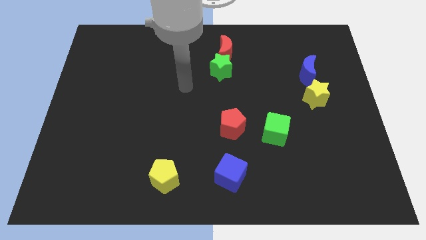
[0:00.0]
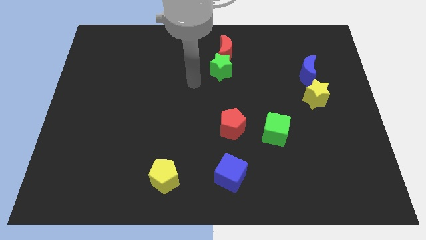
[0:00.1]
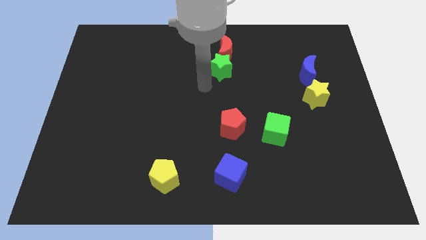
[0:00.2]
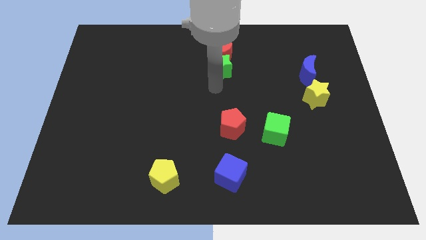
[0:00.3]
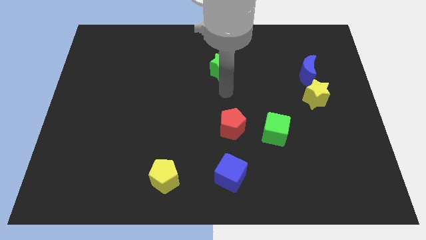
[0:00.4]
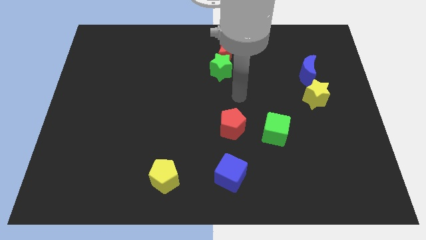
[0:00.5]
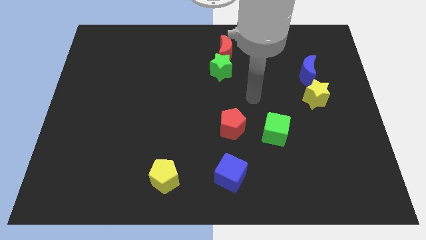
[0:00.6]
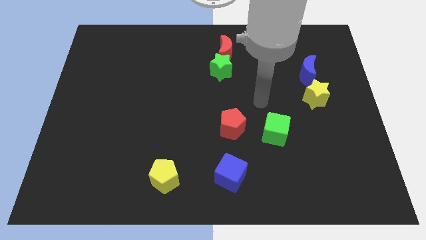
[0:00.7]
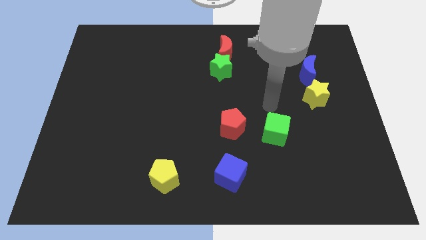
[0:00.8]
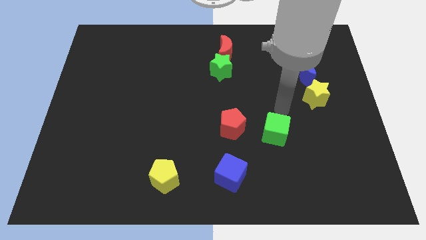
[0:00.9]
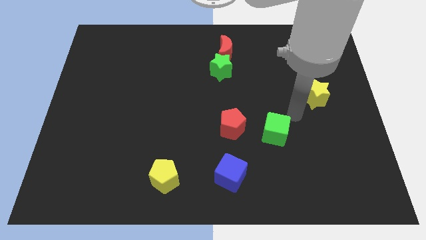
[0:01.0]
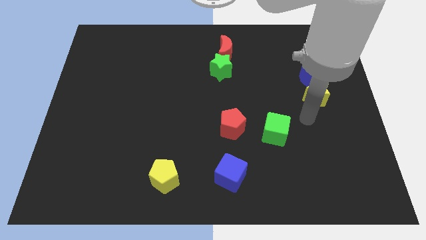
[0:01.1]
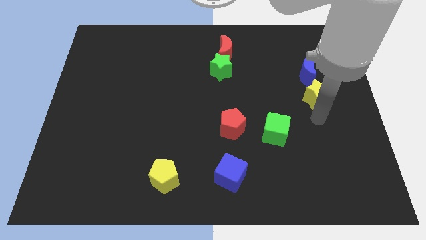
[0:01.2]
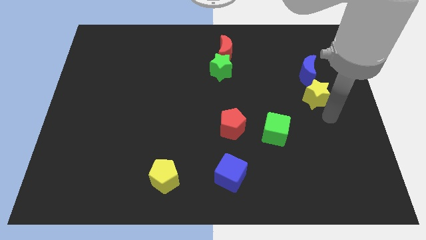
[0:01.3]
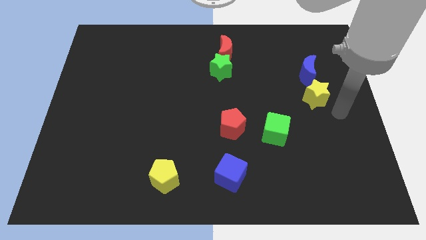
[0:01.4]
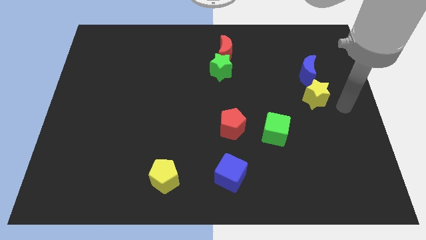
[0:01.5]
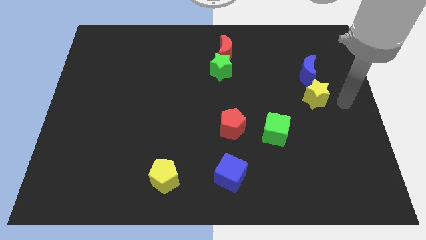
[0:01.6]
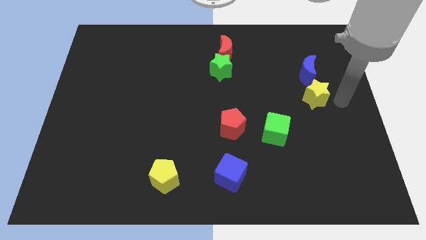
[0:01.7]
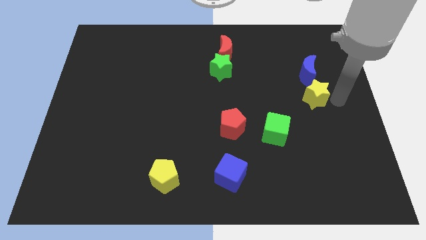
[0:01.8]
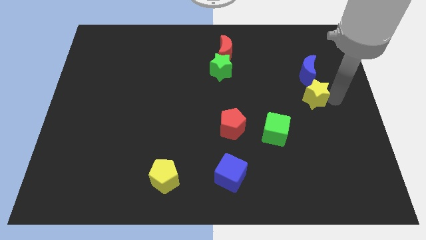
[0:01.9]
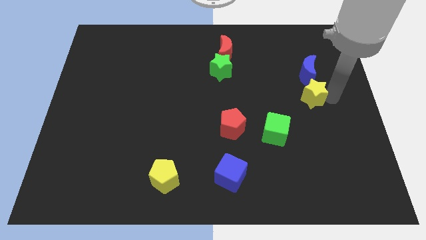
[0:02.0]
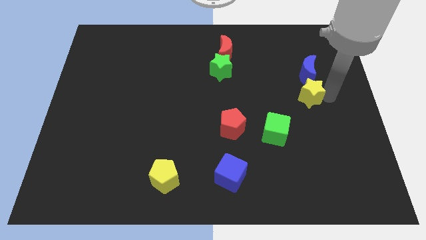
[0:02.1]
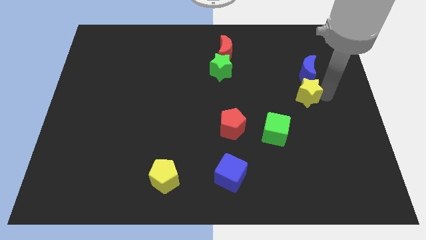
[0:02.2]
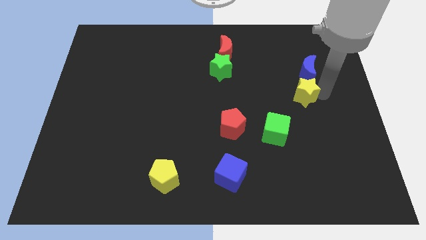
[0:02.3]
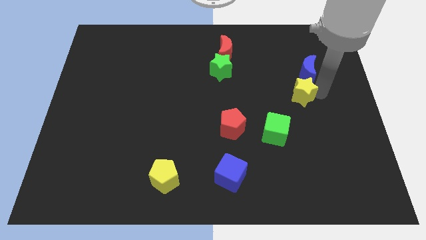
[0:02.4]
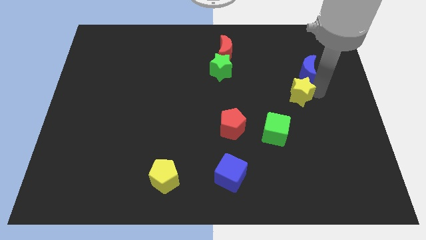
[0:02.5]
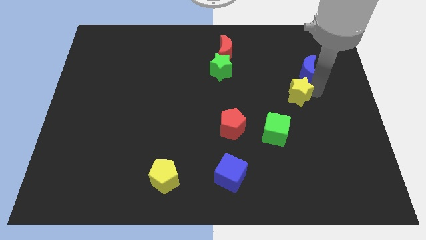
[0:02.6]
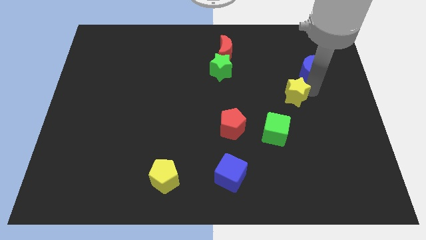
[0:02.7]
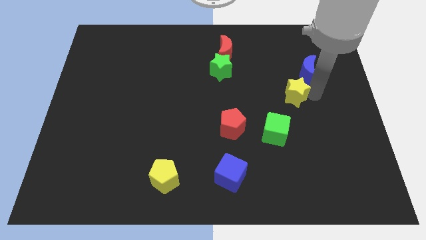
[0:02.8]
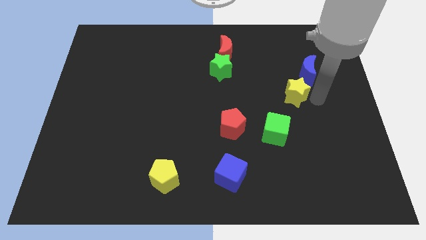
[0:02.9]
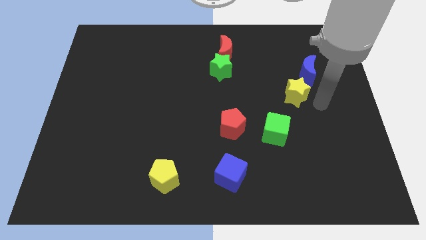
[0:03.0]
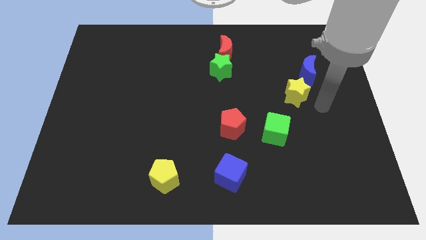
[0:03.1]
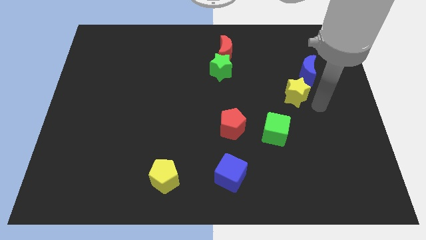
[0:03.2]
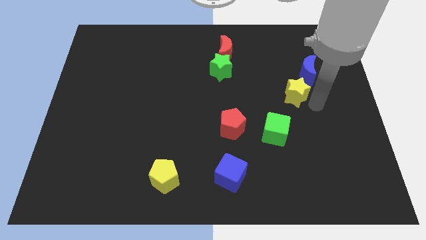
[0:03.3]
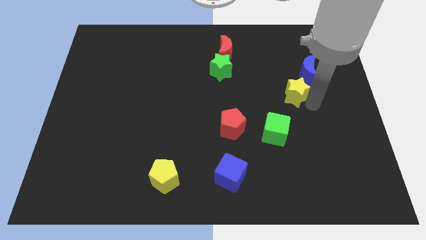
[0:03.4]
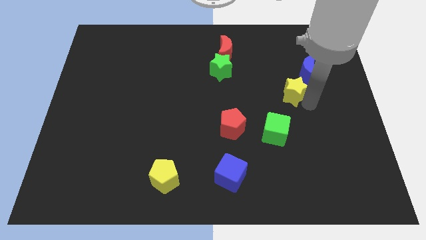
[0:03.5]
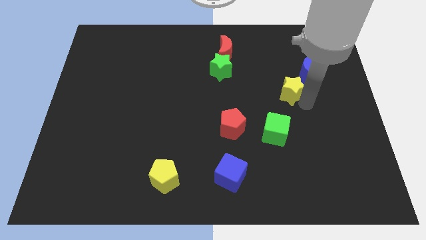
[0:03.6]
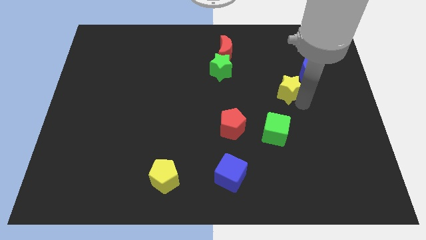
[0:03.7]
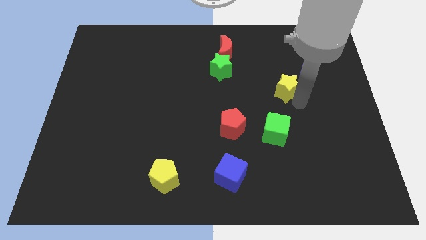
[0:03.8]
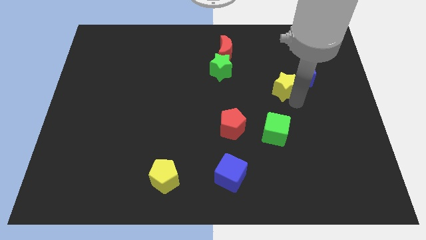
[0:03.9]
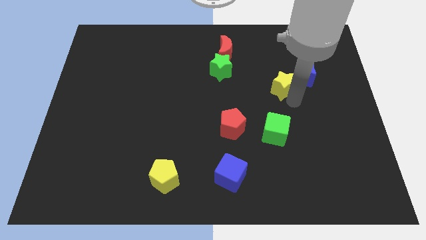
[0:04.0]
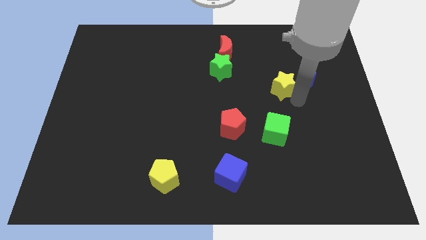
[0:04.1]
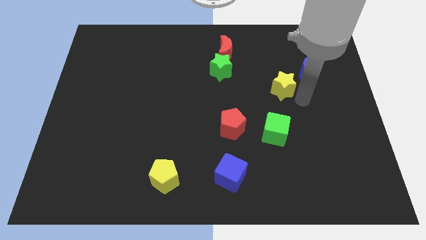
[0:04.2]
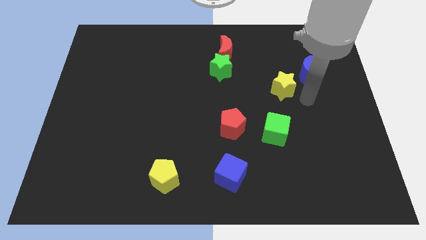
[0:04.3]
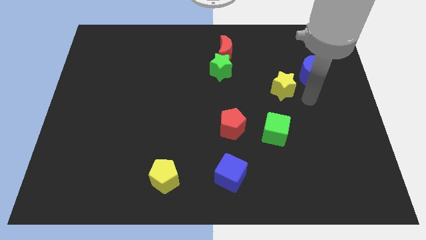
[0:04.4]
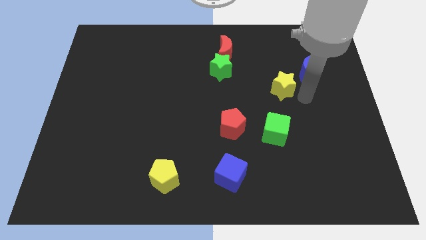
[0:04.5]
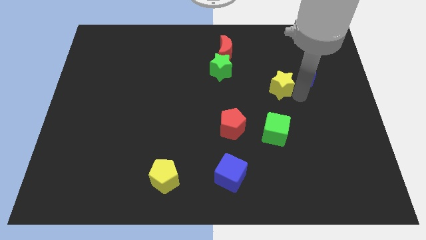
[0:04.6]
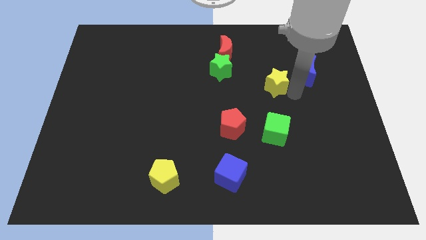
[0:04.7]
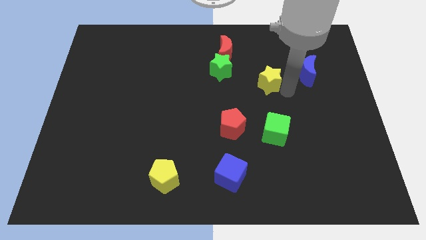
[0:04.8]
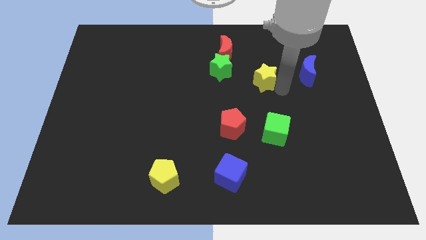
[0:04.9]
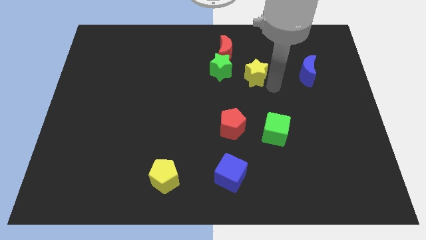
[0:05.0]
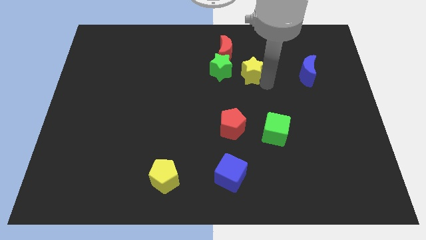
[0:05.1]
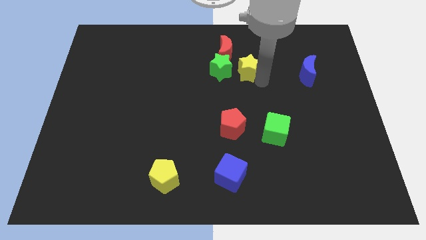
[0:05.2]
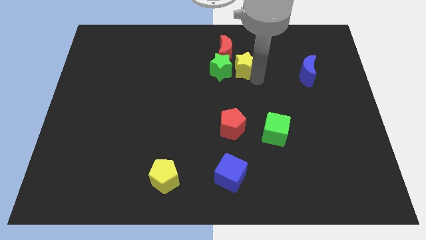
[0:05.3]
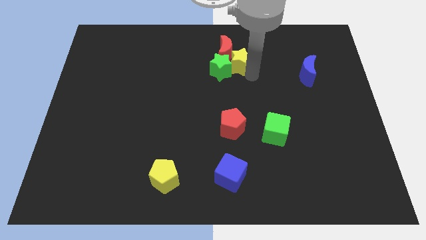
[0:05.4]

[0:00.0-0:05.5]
push the yellow star next to the red moon

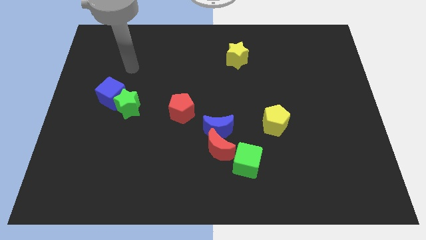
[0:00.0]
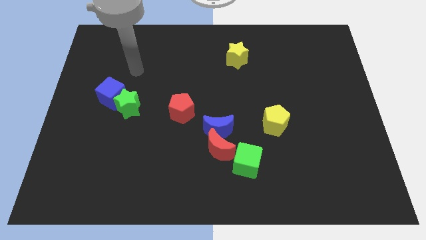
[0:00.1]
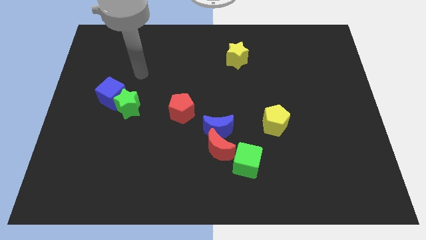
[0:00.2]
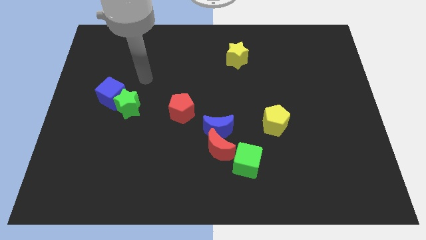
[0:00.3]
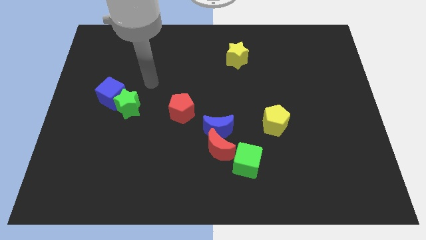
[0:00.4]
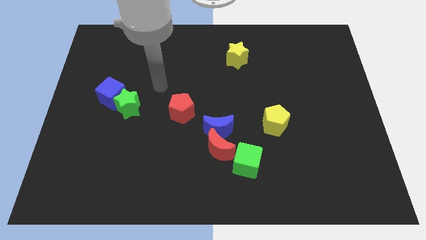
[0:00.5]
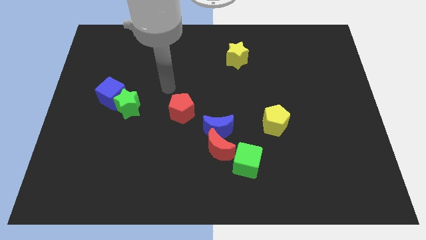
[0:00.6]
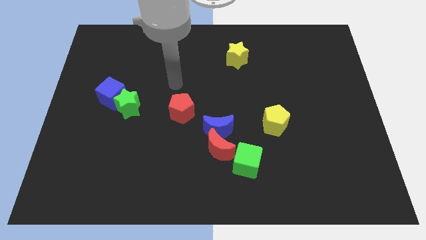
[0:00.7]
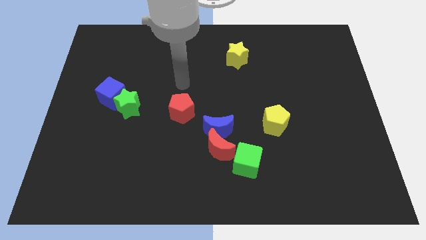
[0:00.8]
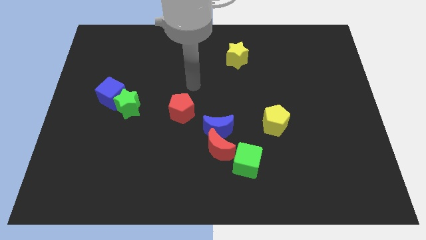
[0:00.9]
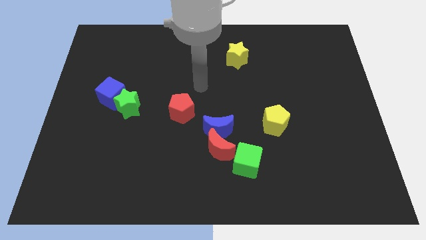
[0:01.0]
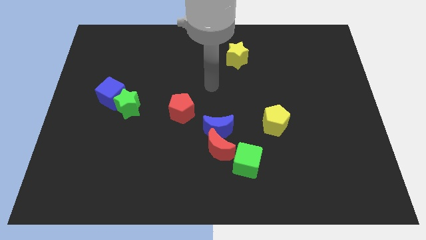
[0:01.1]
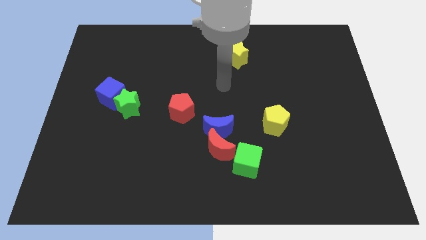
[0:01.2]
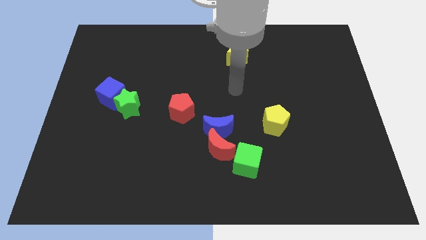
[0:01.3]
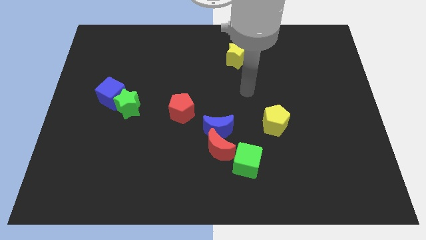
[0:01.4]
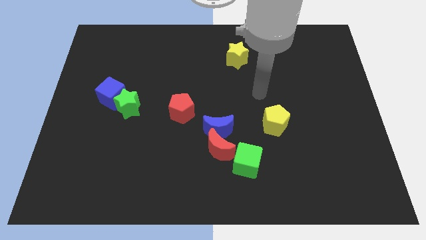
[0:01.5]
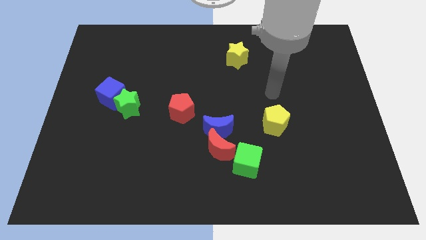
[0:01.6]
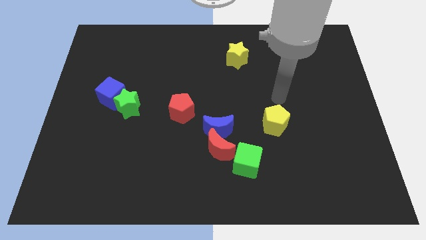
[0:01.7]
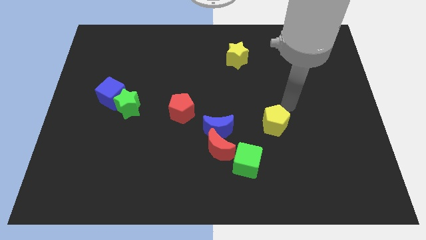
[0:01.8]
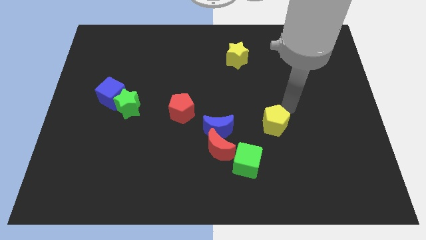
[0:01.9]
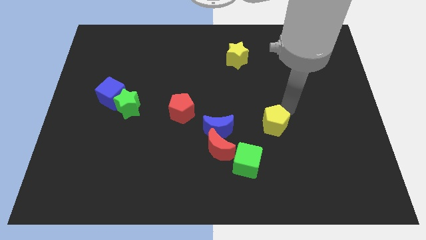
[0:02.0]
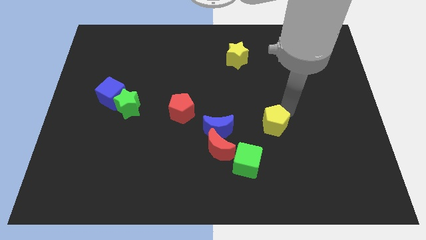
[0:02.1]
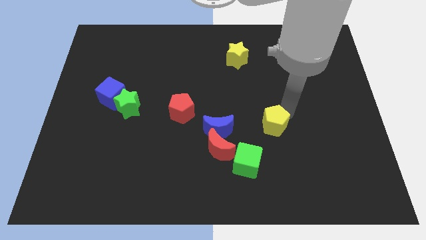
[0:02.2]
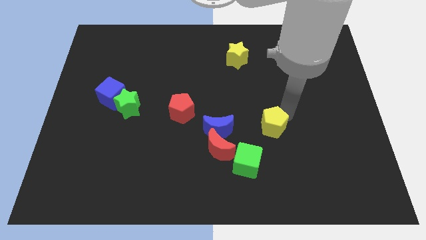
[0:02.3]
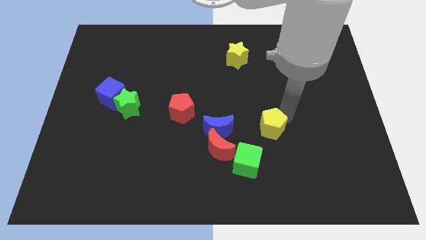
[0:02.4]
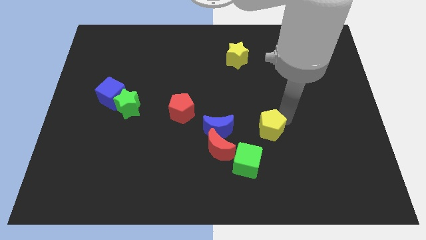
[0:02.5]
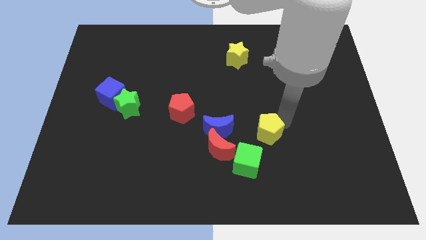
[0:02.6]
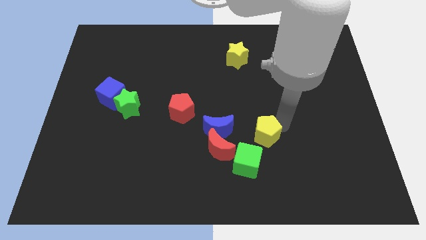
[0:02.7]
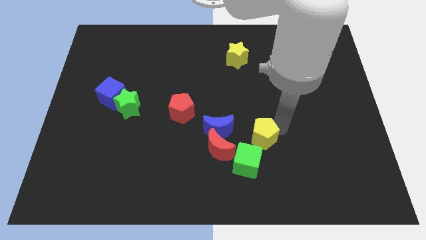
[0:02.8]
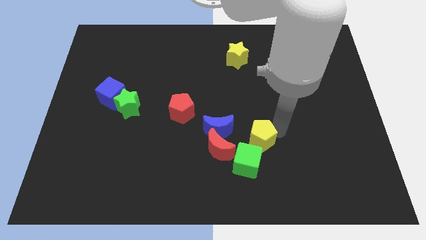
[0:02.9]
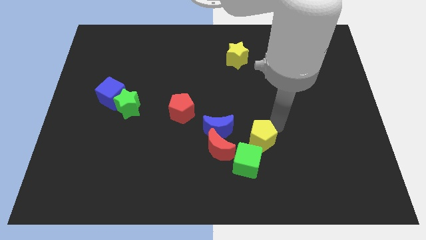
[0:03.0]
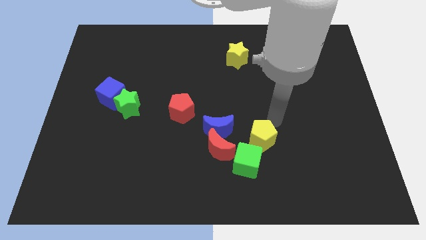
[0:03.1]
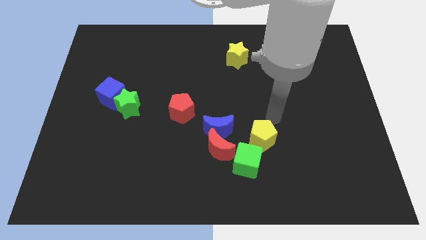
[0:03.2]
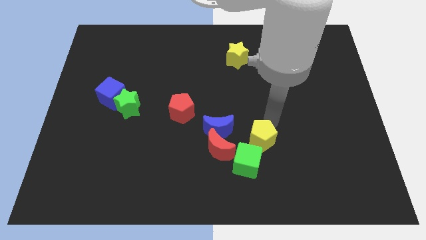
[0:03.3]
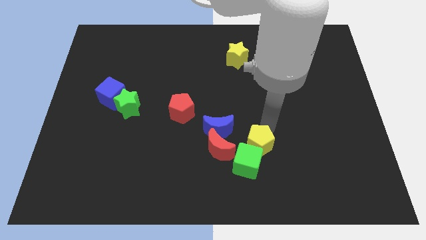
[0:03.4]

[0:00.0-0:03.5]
slide the yellow pentagon towards the green cube
